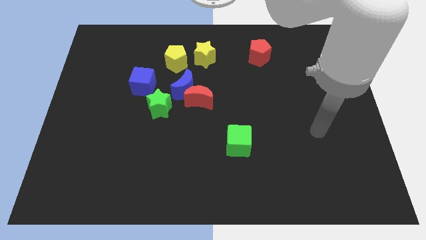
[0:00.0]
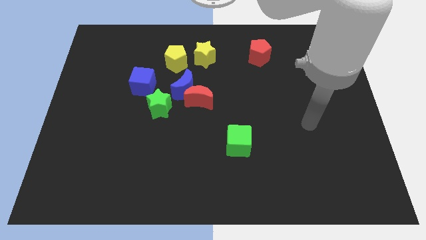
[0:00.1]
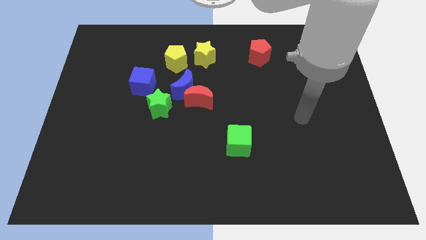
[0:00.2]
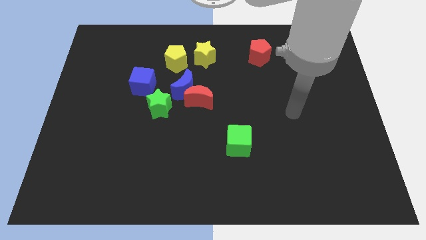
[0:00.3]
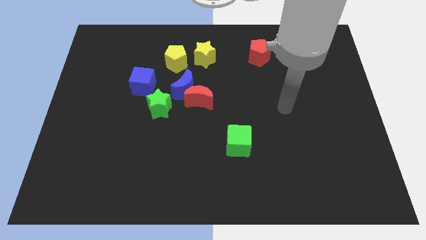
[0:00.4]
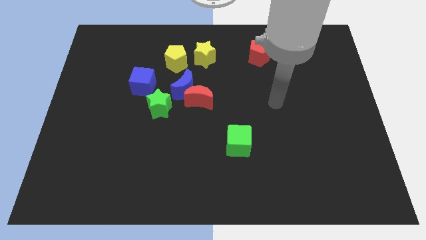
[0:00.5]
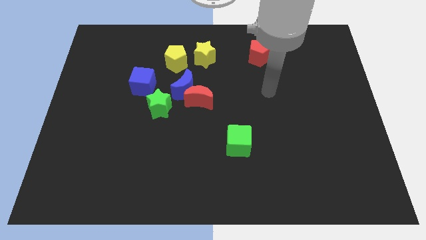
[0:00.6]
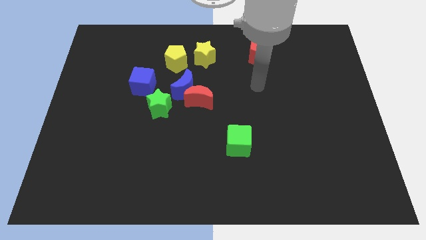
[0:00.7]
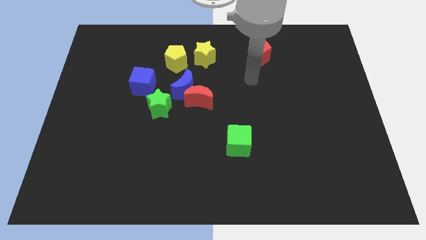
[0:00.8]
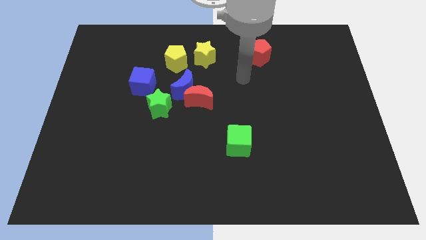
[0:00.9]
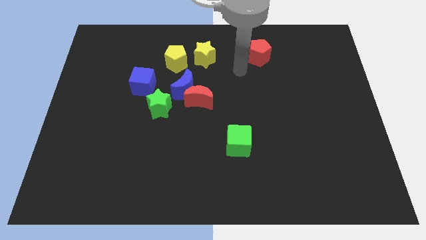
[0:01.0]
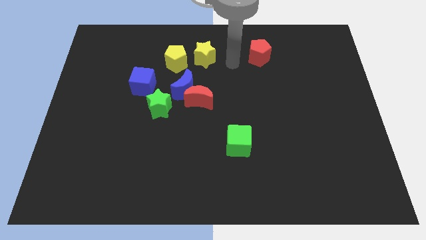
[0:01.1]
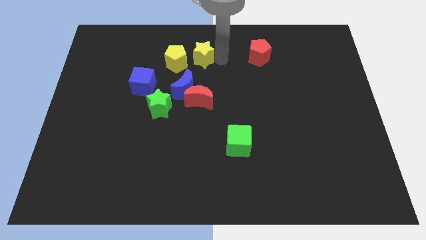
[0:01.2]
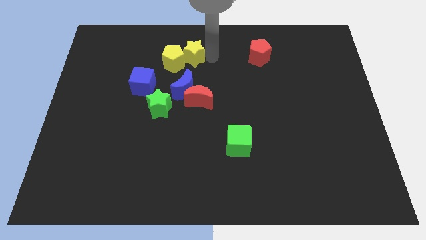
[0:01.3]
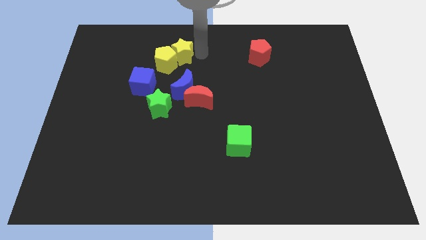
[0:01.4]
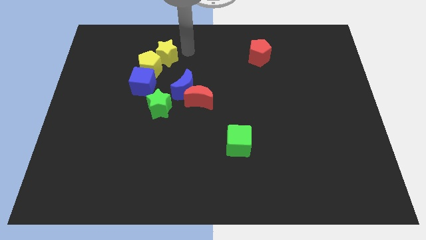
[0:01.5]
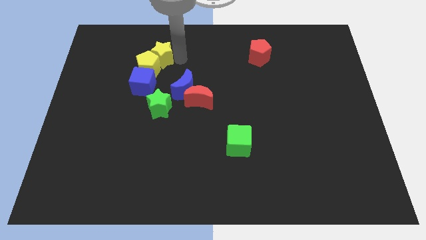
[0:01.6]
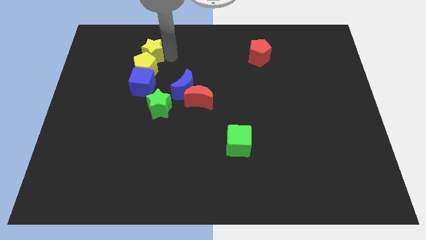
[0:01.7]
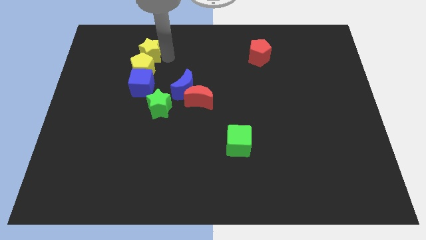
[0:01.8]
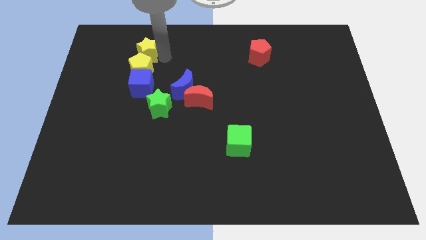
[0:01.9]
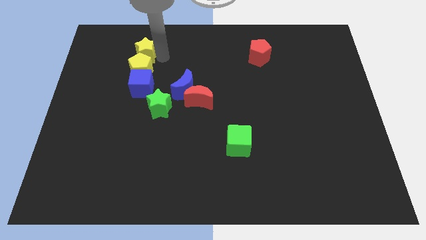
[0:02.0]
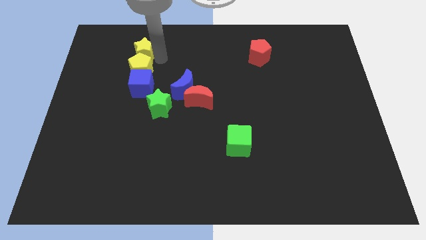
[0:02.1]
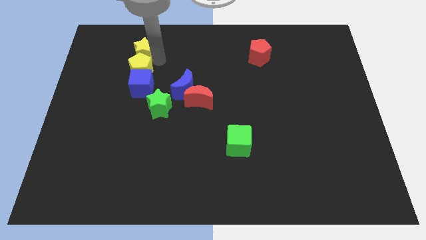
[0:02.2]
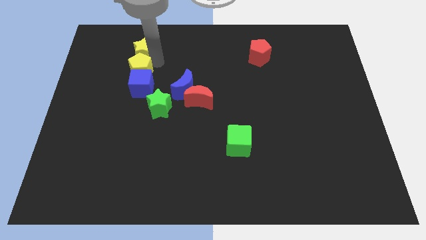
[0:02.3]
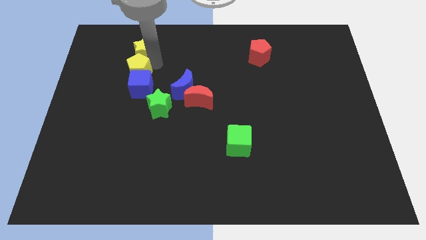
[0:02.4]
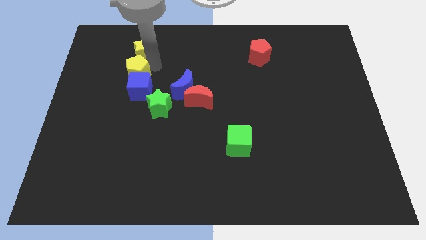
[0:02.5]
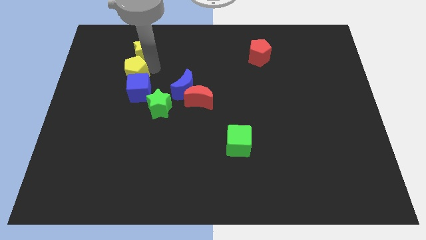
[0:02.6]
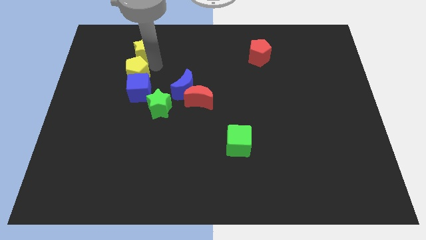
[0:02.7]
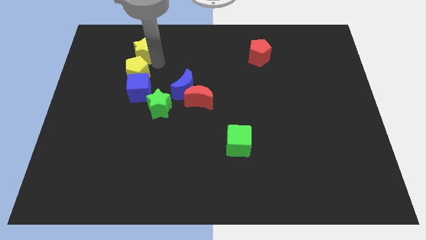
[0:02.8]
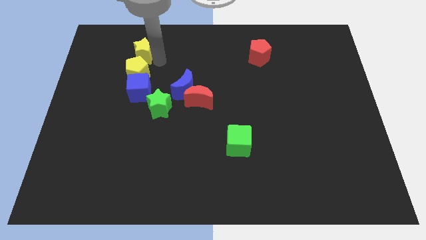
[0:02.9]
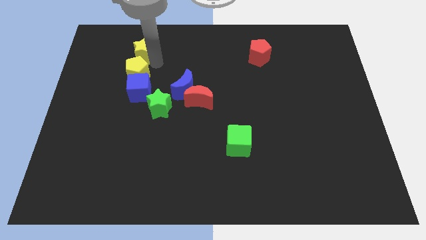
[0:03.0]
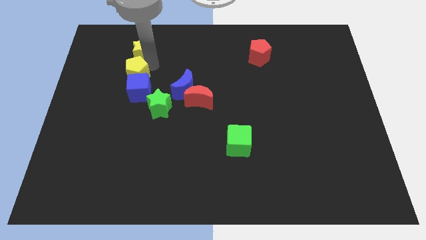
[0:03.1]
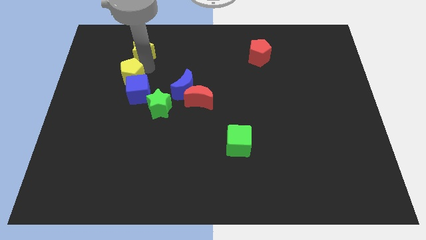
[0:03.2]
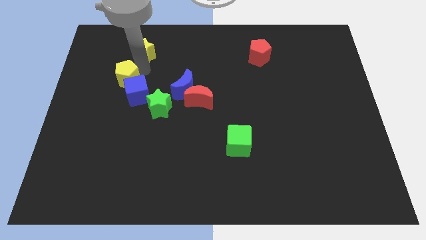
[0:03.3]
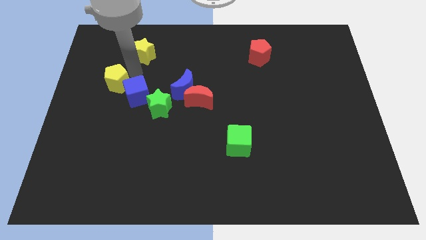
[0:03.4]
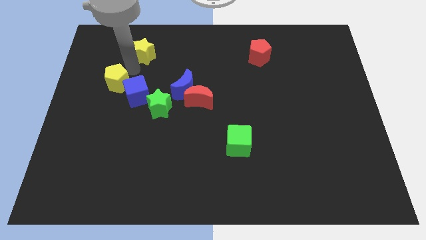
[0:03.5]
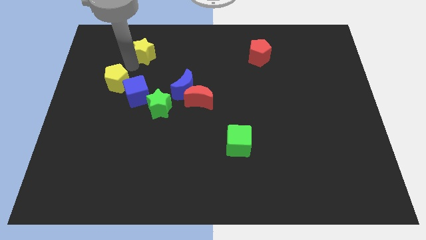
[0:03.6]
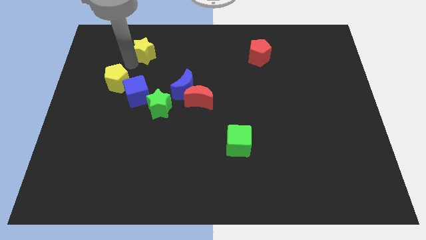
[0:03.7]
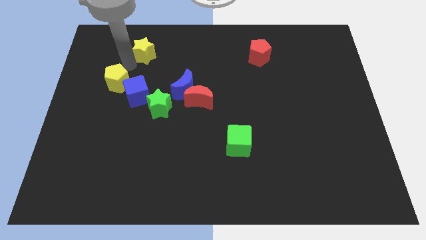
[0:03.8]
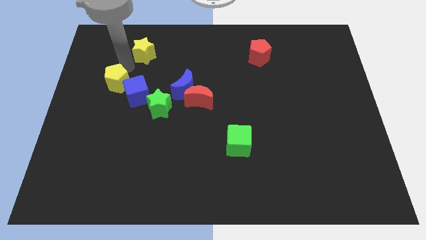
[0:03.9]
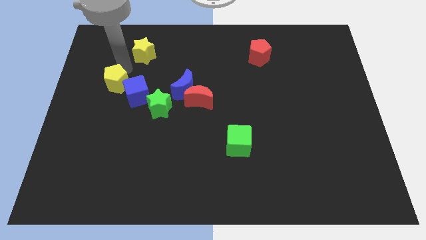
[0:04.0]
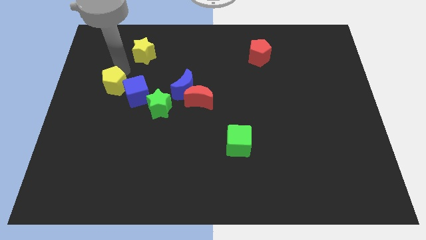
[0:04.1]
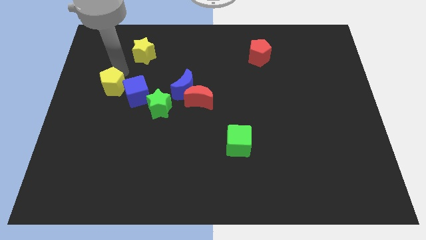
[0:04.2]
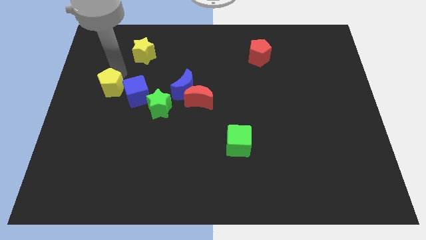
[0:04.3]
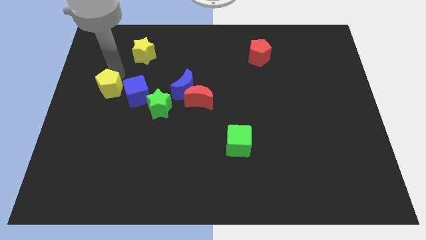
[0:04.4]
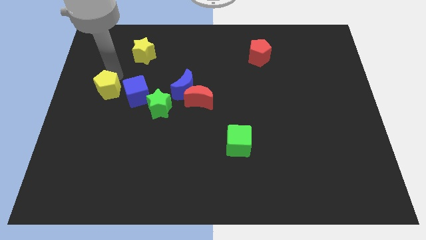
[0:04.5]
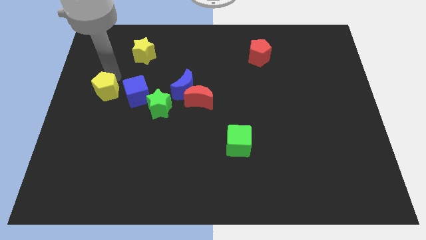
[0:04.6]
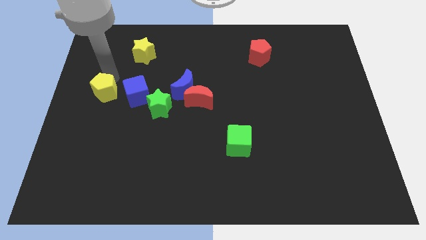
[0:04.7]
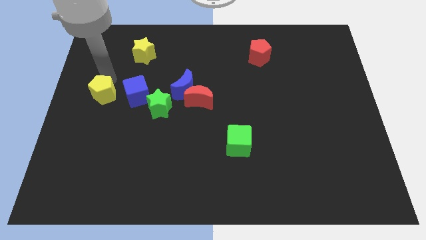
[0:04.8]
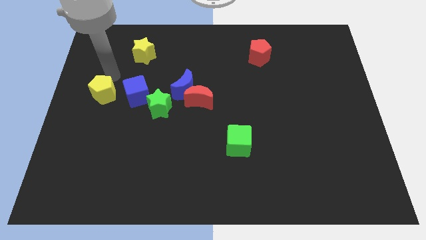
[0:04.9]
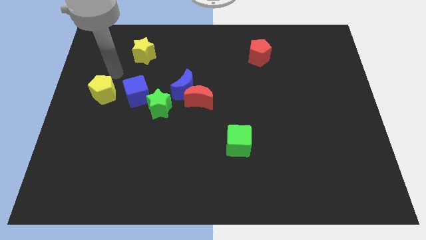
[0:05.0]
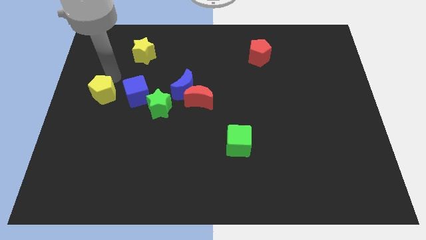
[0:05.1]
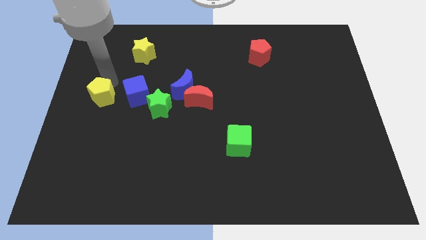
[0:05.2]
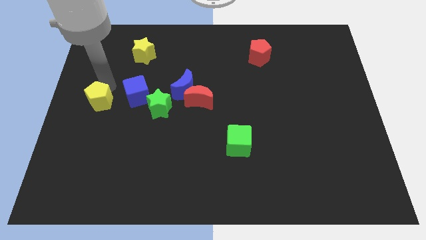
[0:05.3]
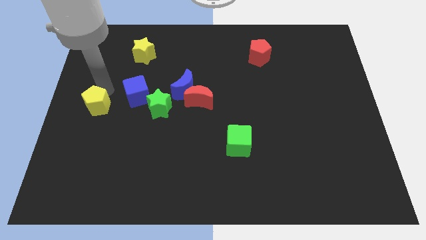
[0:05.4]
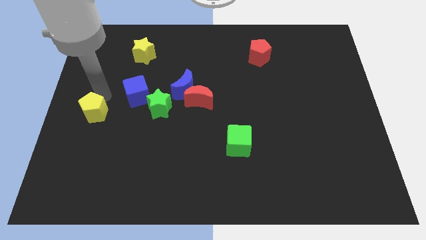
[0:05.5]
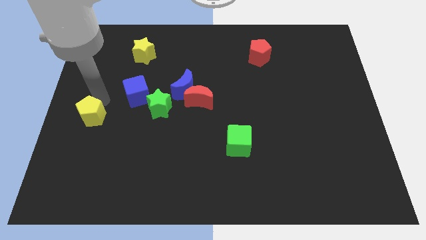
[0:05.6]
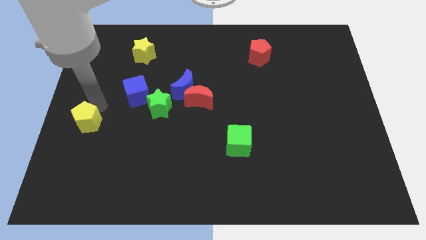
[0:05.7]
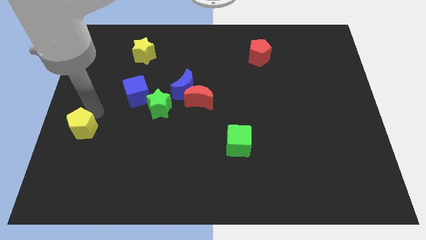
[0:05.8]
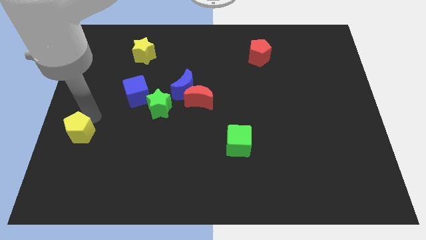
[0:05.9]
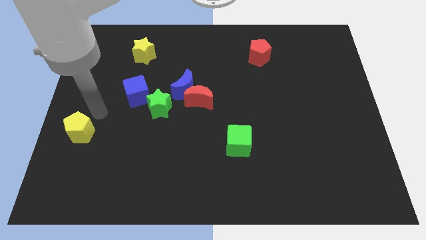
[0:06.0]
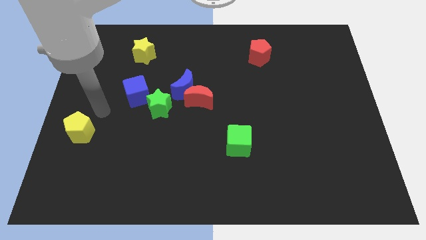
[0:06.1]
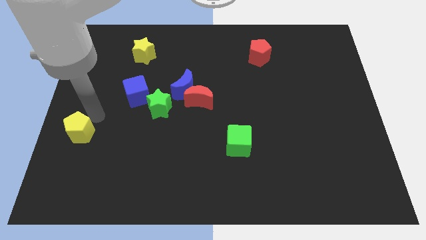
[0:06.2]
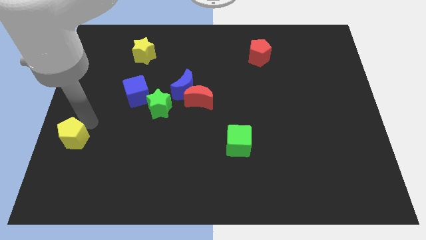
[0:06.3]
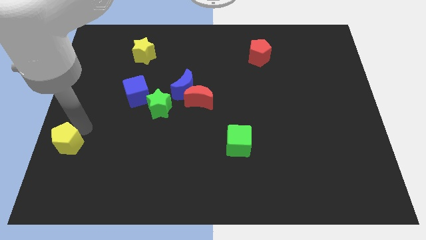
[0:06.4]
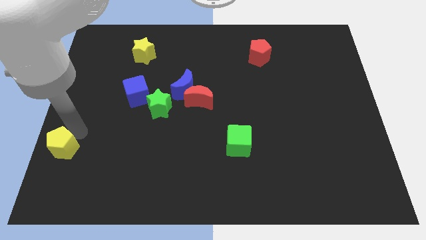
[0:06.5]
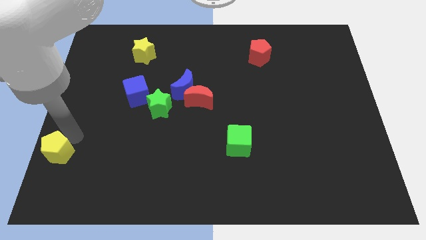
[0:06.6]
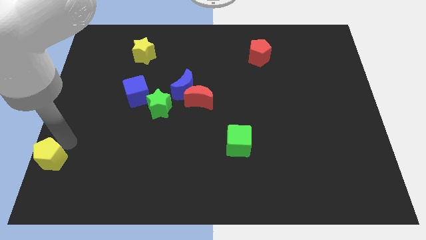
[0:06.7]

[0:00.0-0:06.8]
move the yellow pentagon to the bottom left corner

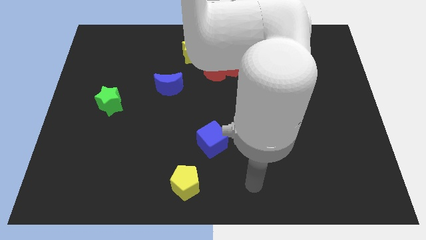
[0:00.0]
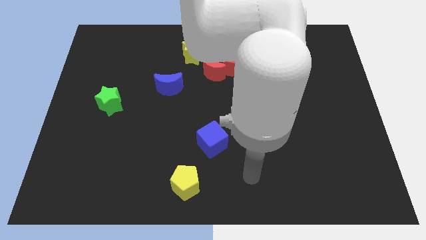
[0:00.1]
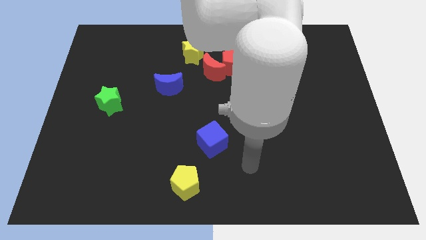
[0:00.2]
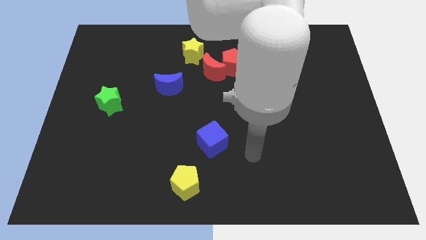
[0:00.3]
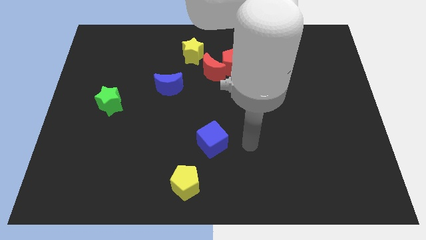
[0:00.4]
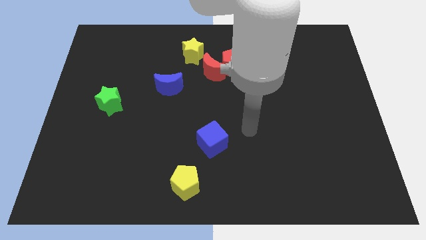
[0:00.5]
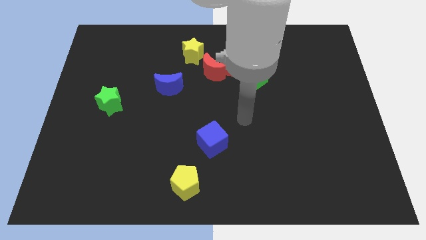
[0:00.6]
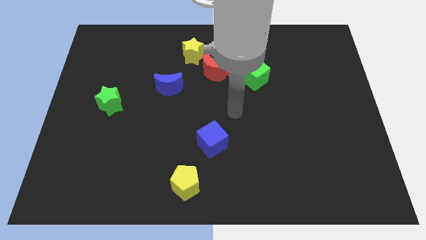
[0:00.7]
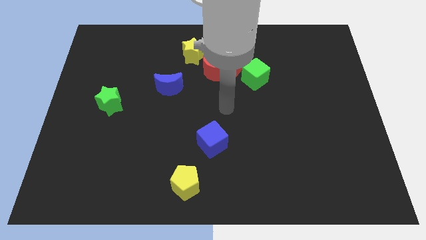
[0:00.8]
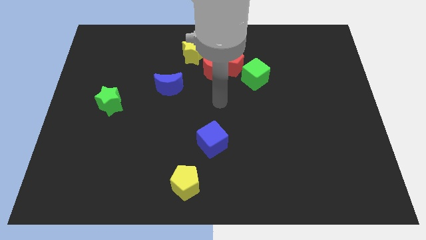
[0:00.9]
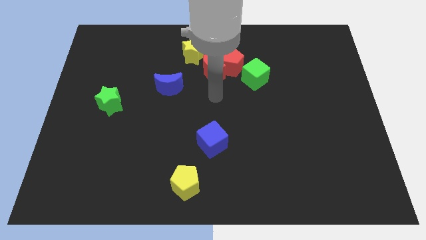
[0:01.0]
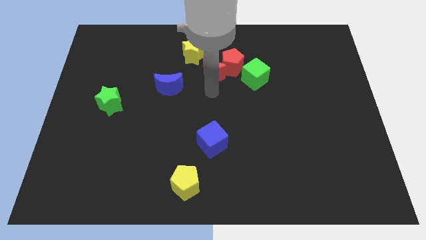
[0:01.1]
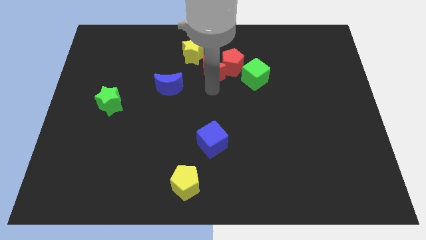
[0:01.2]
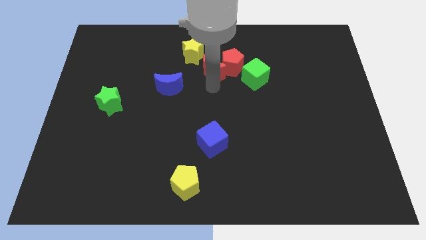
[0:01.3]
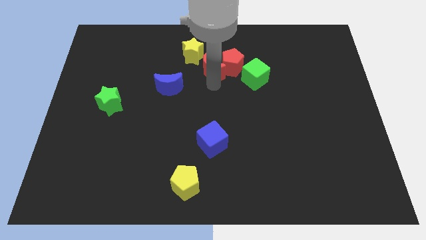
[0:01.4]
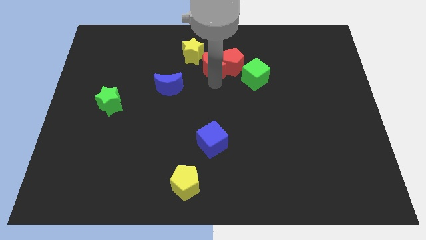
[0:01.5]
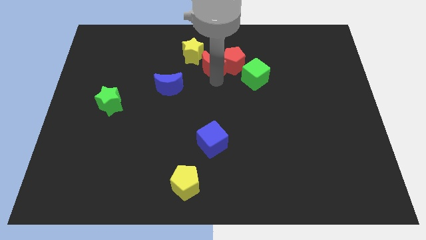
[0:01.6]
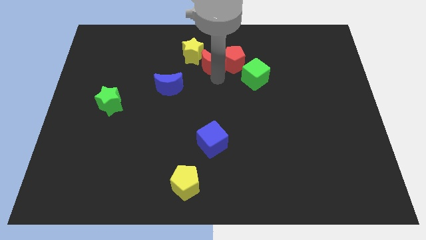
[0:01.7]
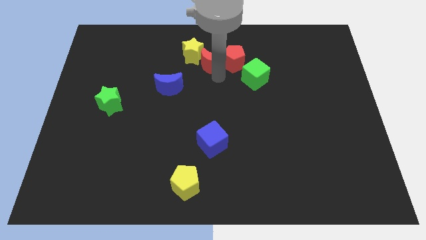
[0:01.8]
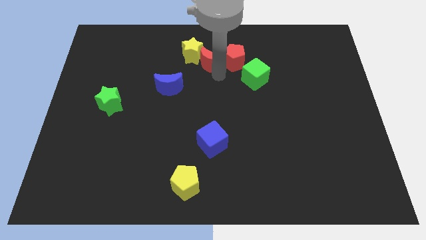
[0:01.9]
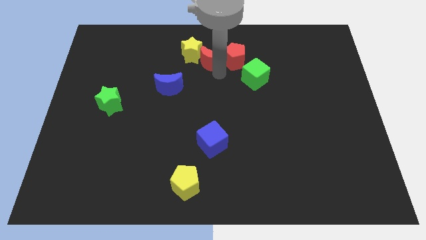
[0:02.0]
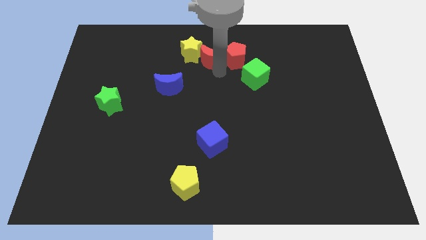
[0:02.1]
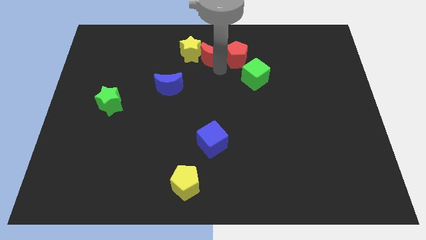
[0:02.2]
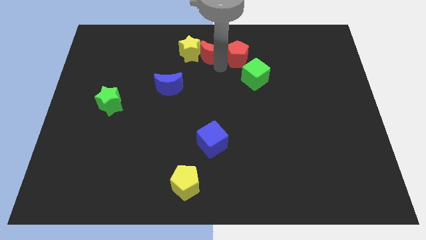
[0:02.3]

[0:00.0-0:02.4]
put the red moon to the top
